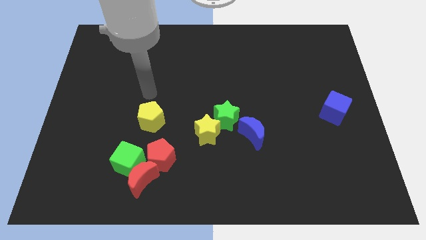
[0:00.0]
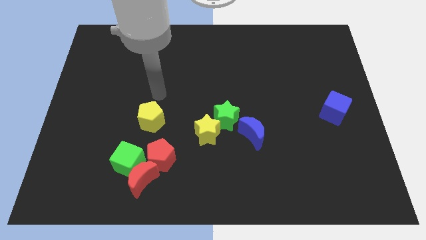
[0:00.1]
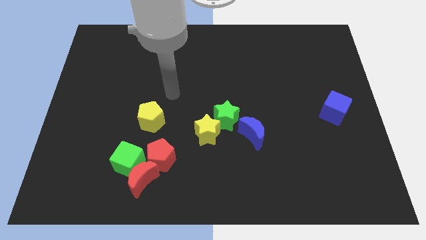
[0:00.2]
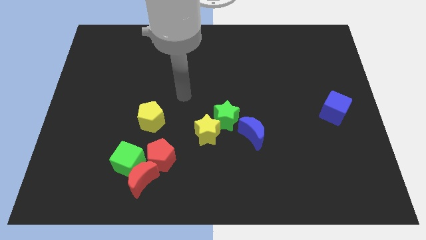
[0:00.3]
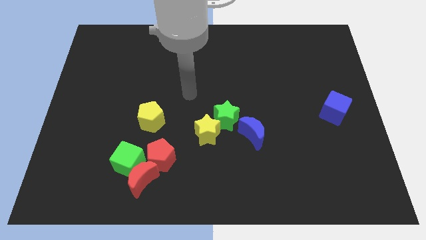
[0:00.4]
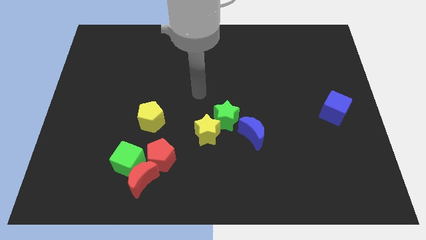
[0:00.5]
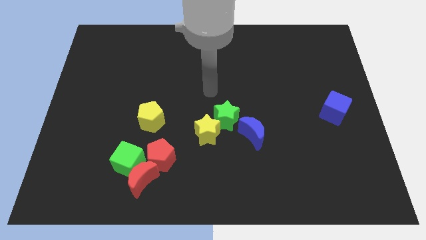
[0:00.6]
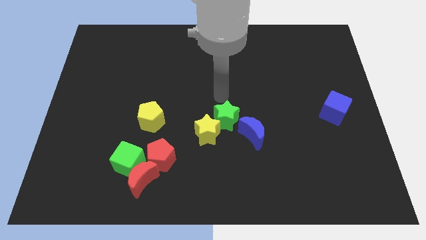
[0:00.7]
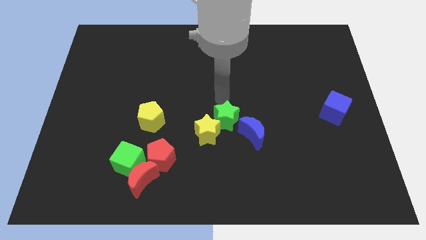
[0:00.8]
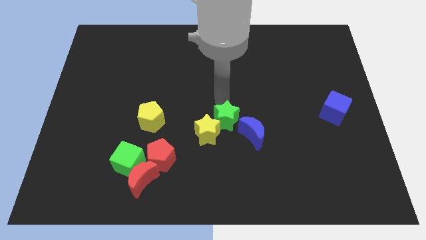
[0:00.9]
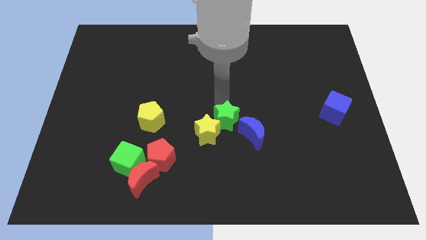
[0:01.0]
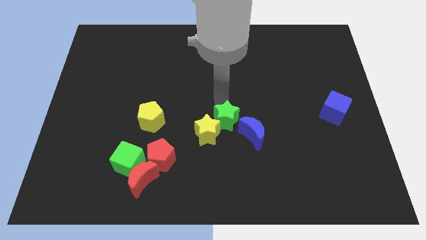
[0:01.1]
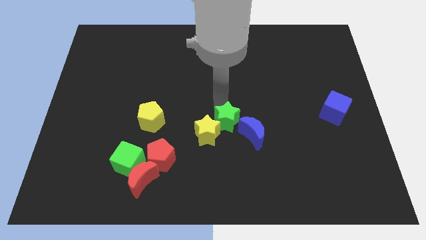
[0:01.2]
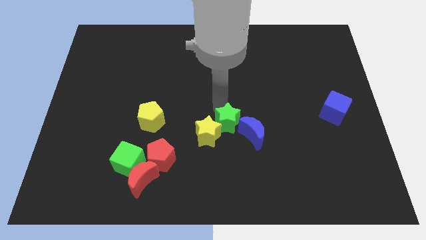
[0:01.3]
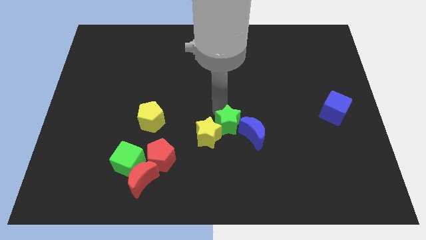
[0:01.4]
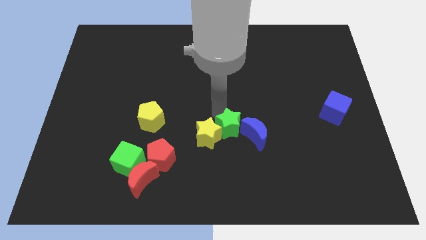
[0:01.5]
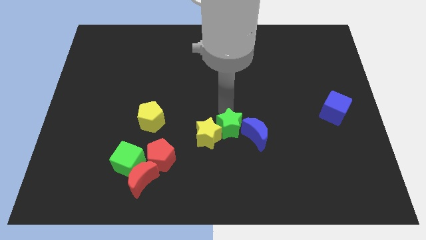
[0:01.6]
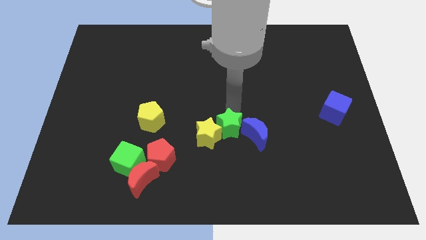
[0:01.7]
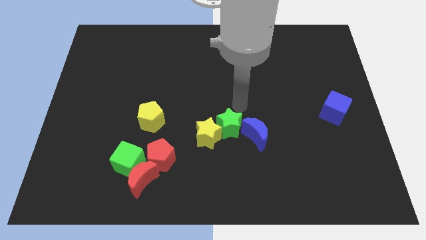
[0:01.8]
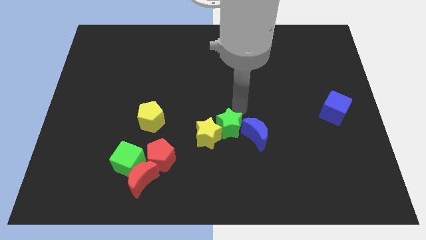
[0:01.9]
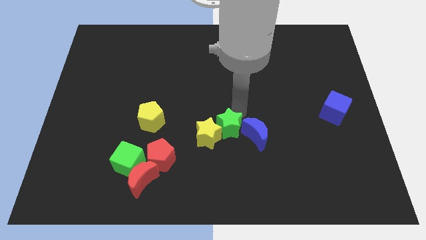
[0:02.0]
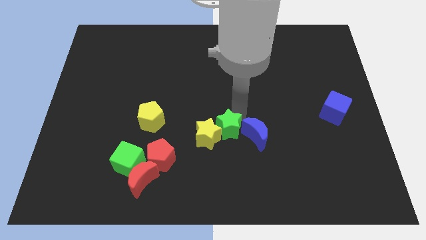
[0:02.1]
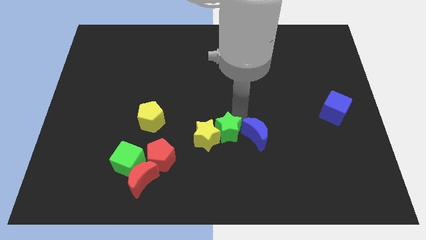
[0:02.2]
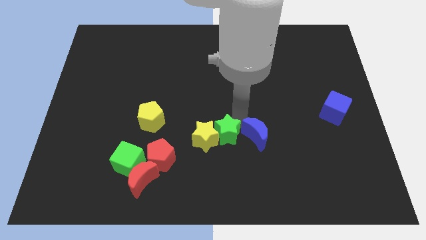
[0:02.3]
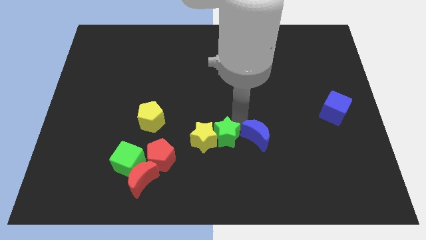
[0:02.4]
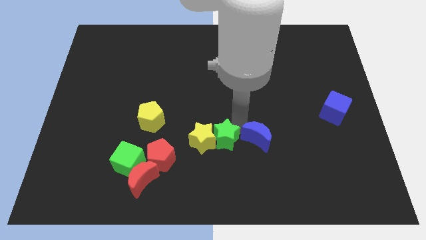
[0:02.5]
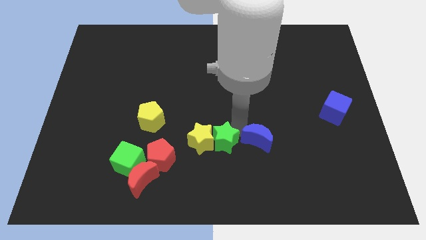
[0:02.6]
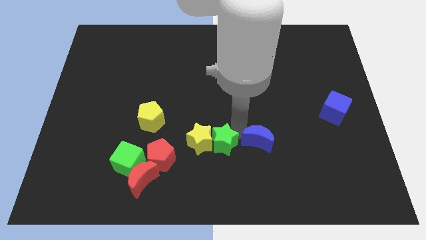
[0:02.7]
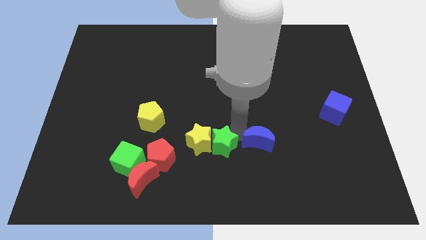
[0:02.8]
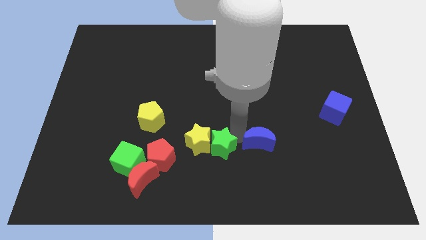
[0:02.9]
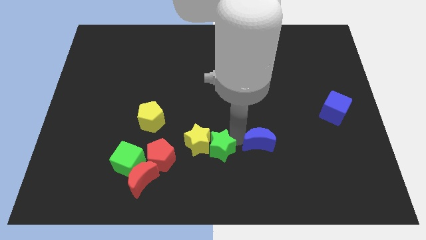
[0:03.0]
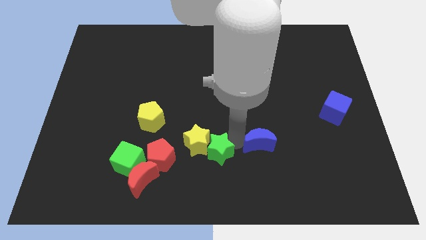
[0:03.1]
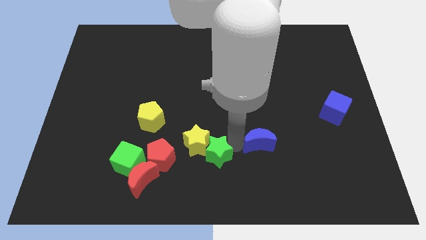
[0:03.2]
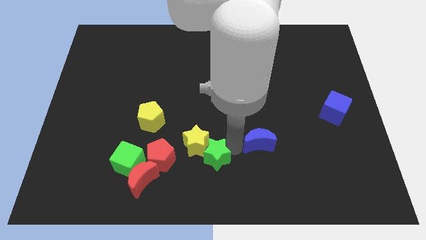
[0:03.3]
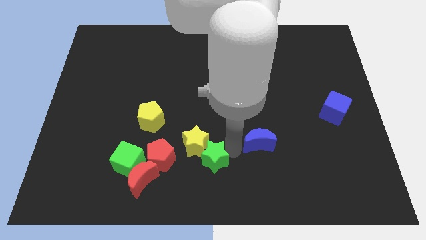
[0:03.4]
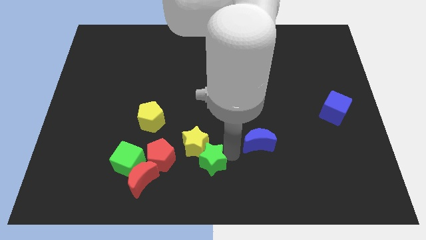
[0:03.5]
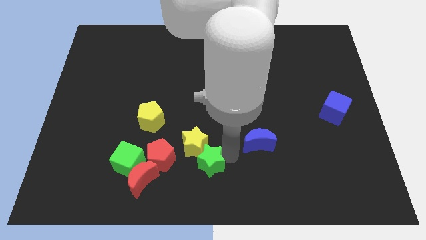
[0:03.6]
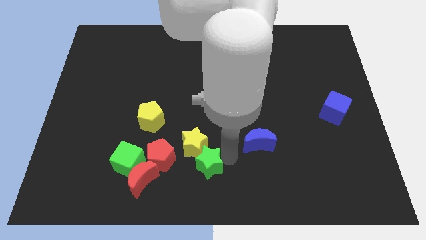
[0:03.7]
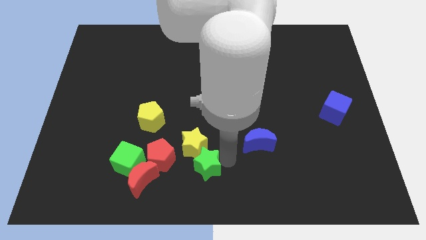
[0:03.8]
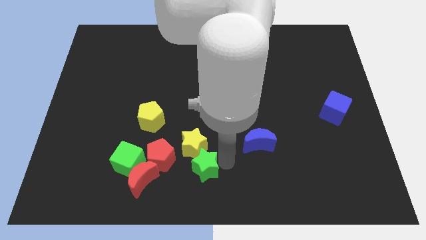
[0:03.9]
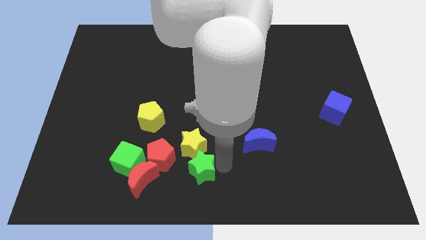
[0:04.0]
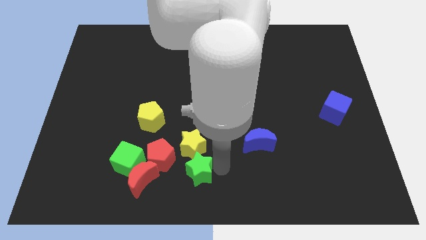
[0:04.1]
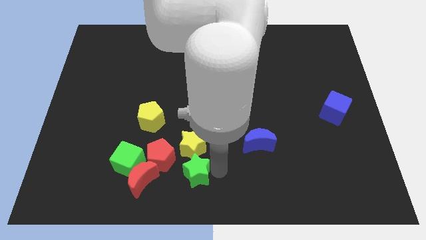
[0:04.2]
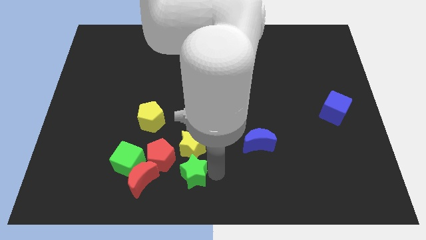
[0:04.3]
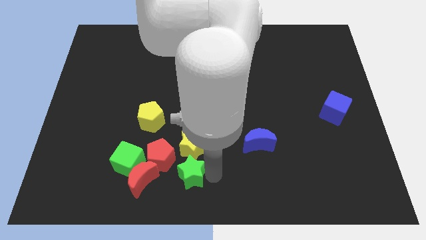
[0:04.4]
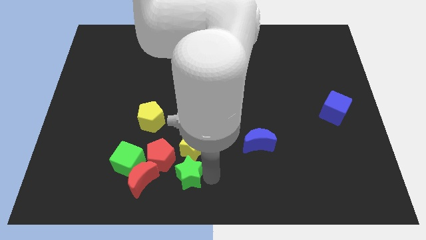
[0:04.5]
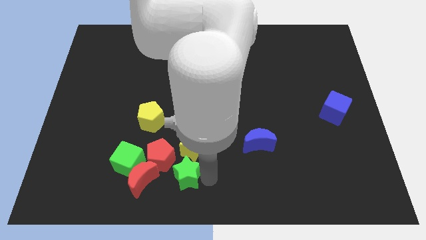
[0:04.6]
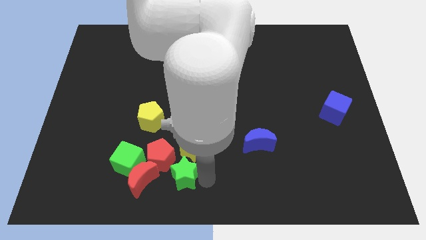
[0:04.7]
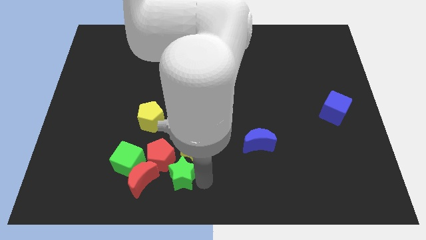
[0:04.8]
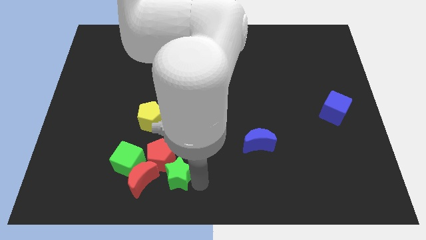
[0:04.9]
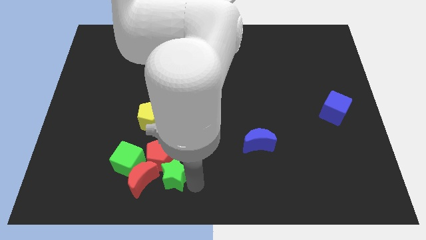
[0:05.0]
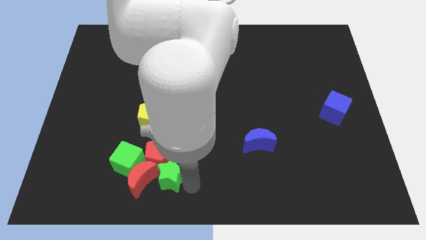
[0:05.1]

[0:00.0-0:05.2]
move the green star next to the red moon

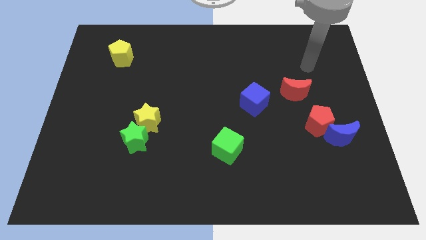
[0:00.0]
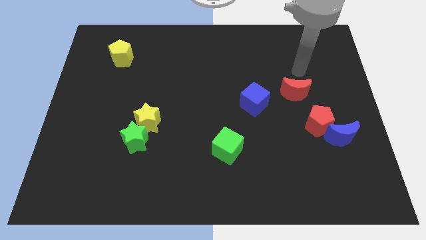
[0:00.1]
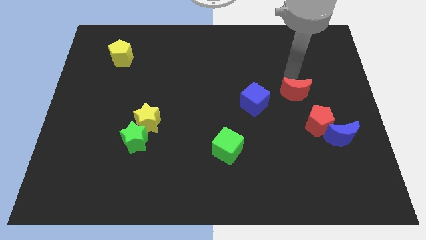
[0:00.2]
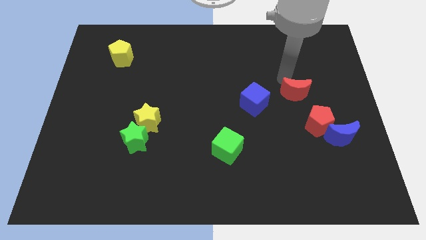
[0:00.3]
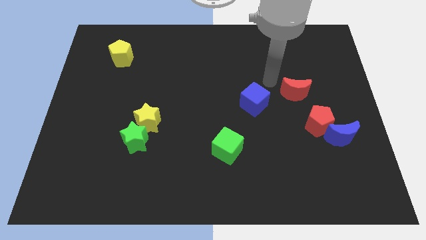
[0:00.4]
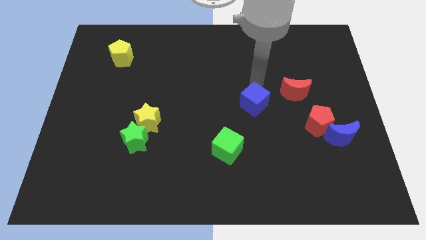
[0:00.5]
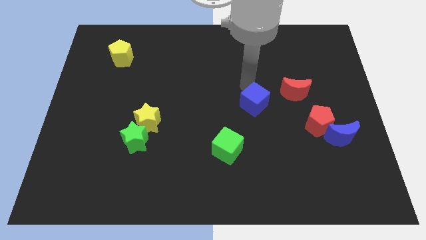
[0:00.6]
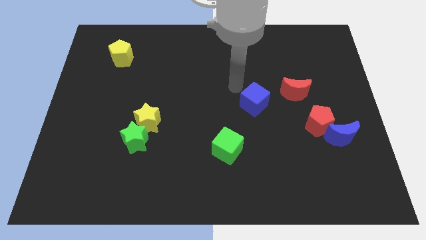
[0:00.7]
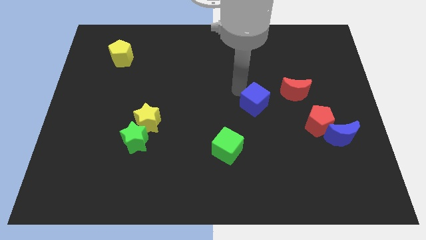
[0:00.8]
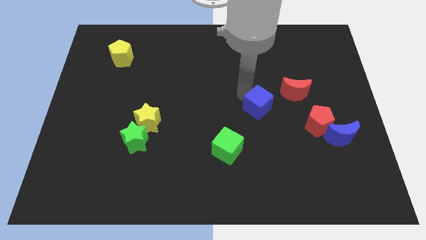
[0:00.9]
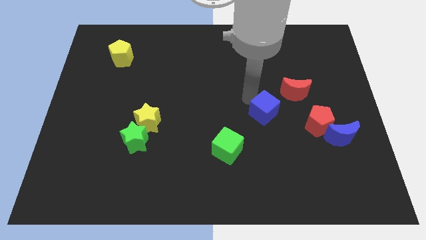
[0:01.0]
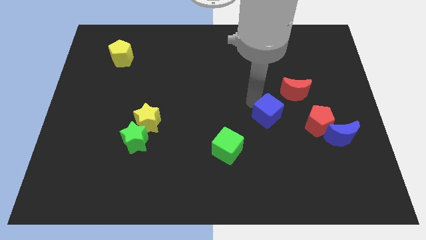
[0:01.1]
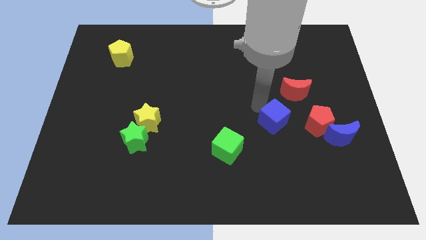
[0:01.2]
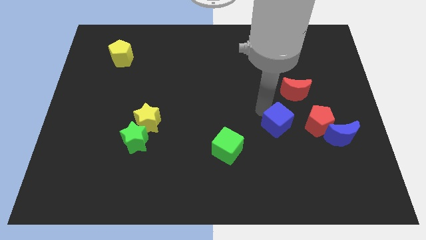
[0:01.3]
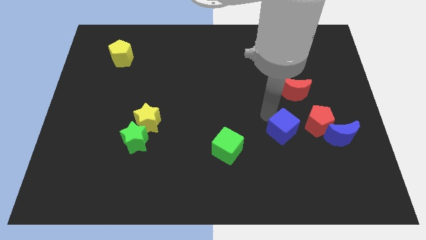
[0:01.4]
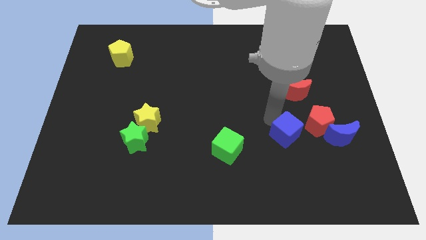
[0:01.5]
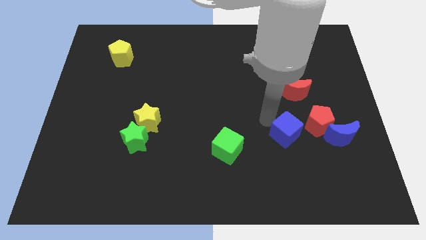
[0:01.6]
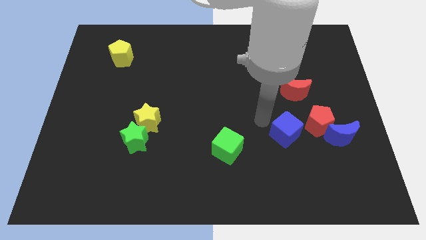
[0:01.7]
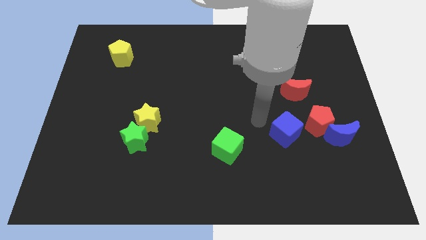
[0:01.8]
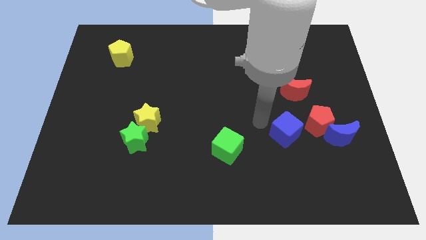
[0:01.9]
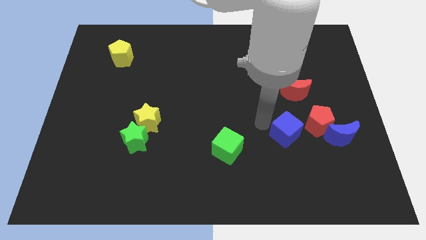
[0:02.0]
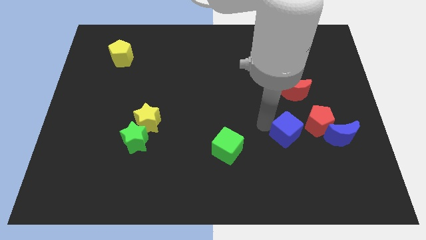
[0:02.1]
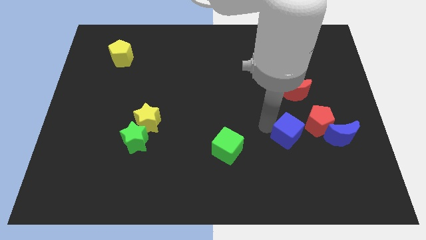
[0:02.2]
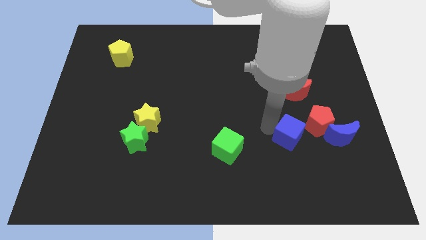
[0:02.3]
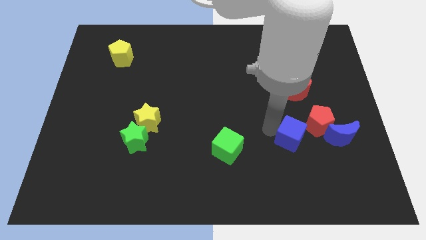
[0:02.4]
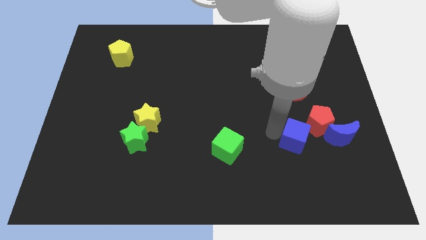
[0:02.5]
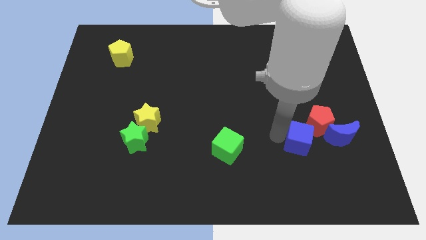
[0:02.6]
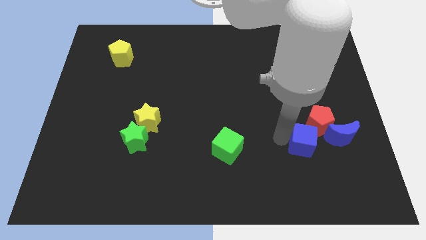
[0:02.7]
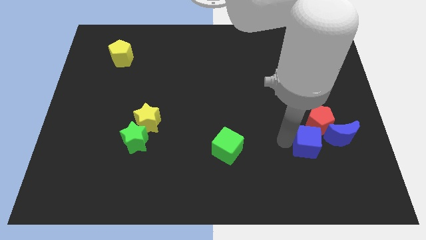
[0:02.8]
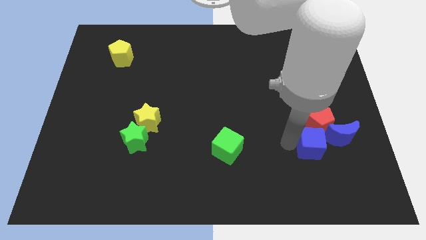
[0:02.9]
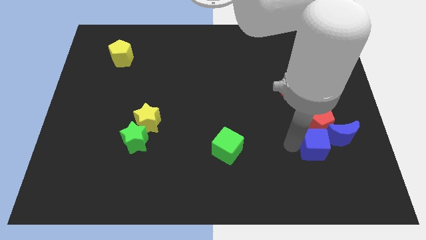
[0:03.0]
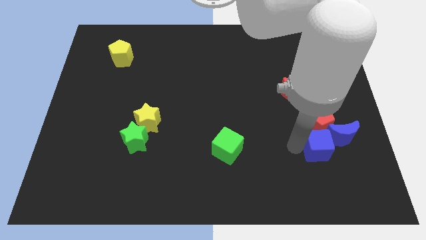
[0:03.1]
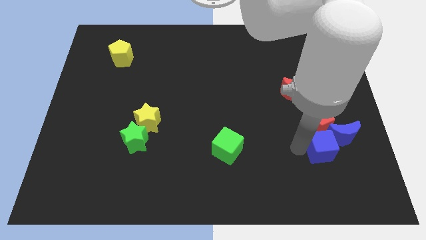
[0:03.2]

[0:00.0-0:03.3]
push the blue cube next to the blue moon
